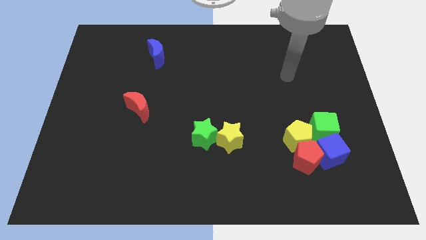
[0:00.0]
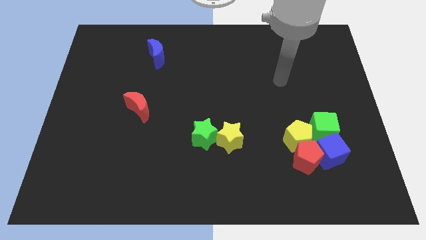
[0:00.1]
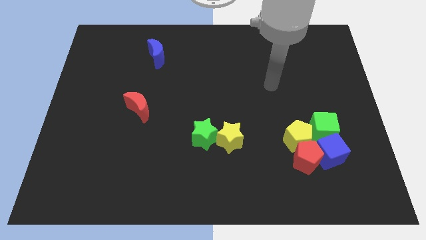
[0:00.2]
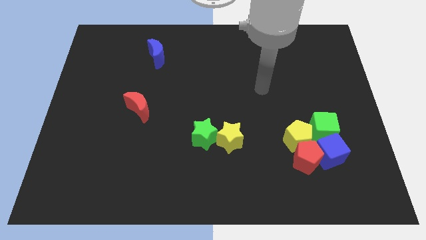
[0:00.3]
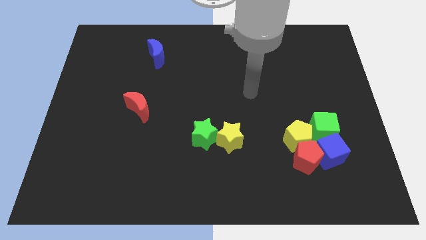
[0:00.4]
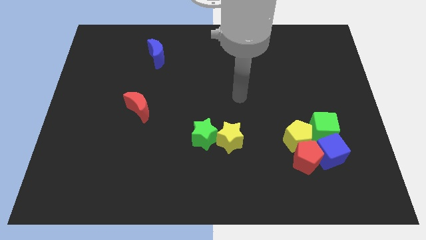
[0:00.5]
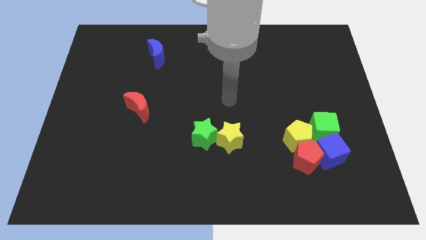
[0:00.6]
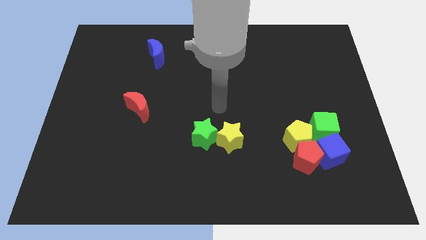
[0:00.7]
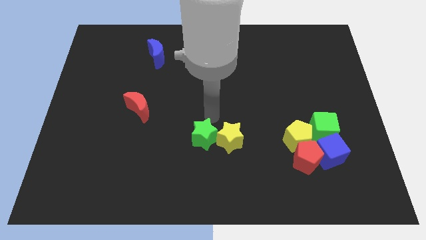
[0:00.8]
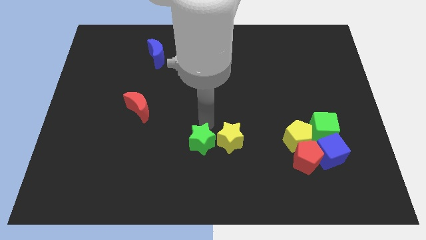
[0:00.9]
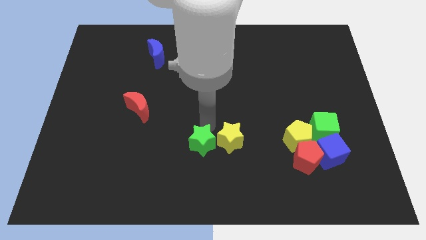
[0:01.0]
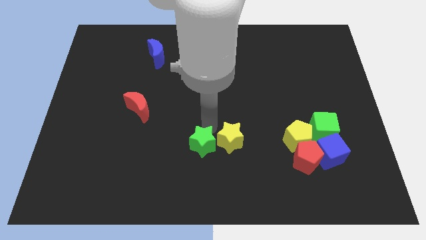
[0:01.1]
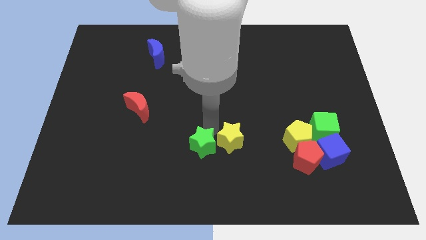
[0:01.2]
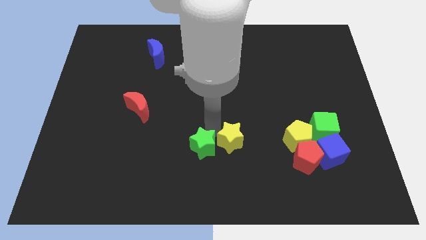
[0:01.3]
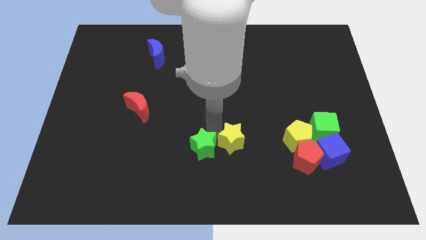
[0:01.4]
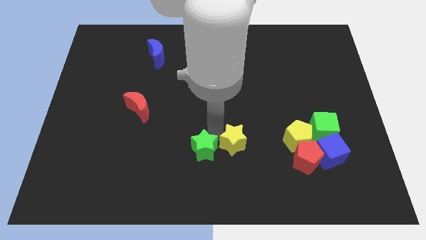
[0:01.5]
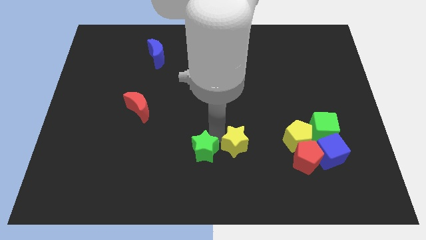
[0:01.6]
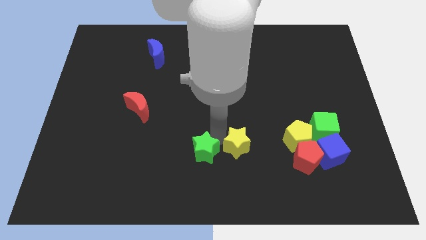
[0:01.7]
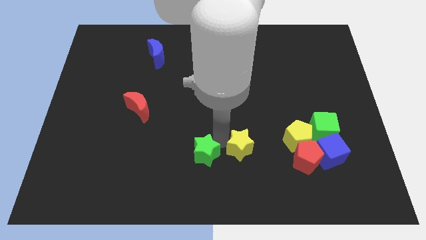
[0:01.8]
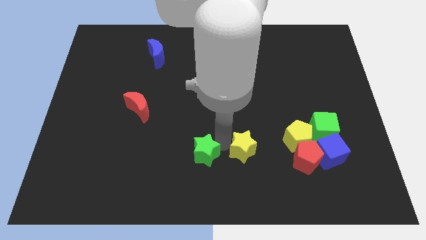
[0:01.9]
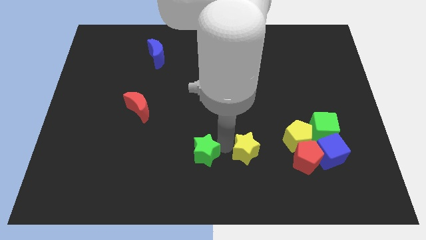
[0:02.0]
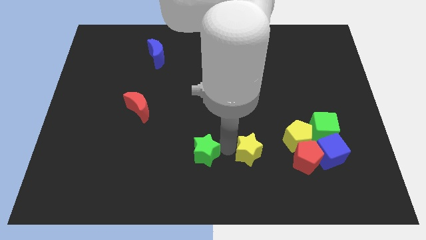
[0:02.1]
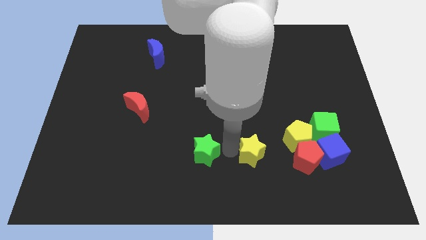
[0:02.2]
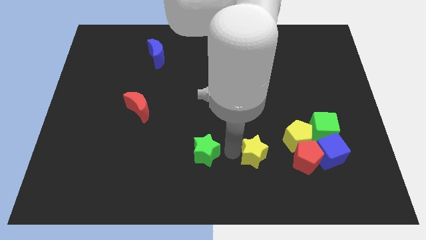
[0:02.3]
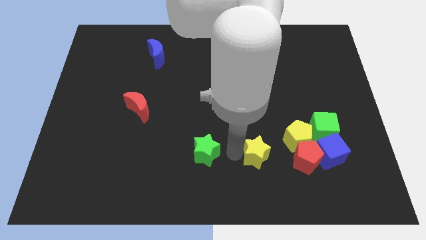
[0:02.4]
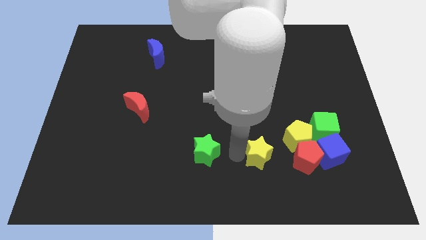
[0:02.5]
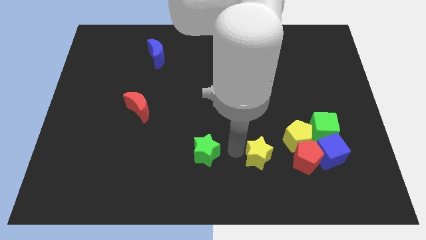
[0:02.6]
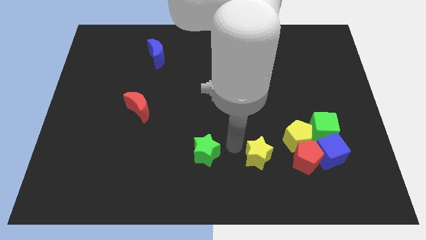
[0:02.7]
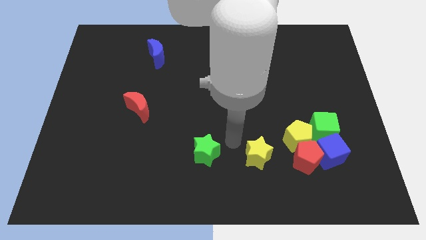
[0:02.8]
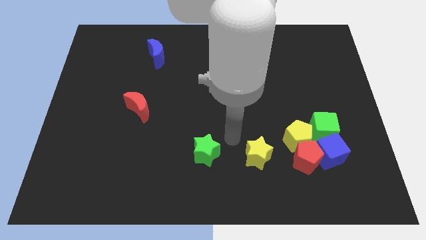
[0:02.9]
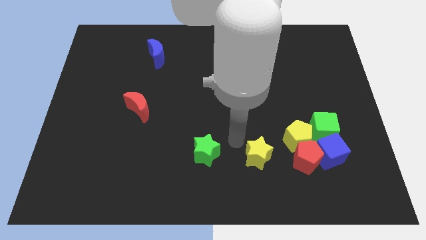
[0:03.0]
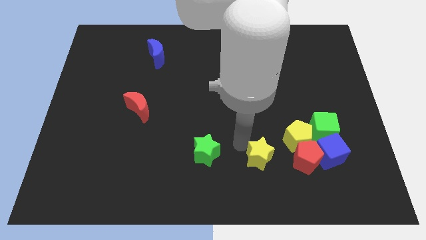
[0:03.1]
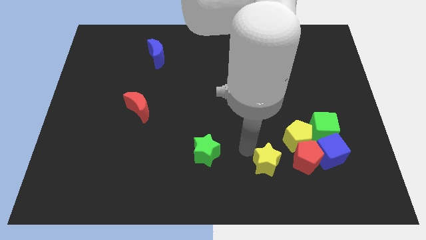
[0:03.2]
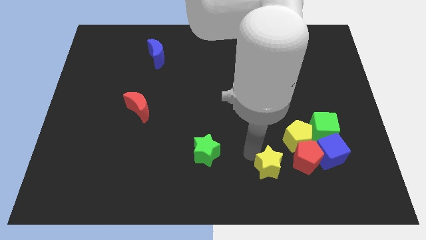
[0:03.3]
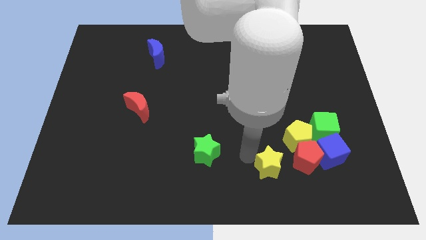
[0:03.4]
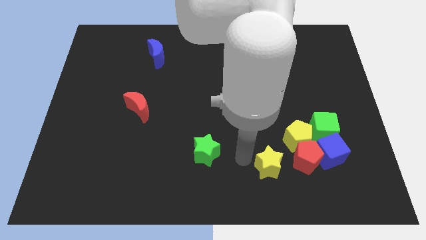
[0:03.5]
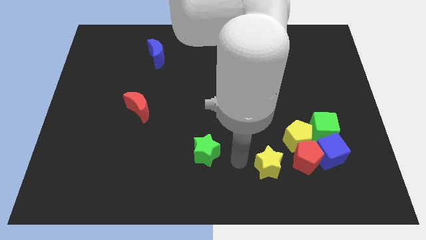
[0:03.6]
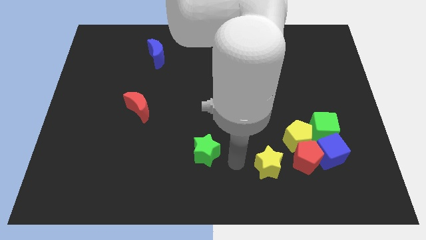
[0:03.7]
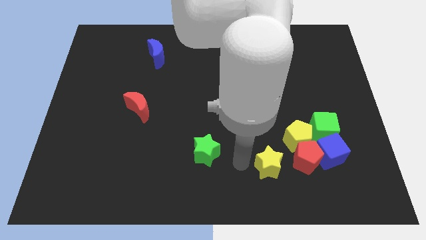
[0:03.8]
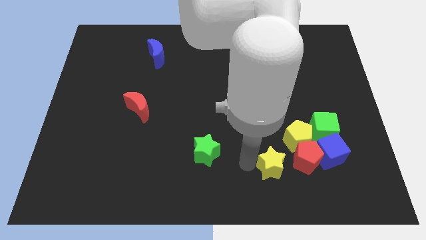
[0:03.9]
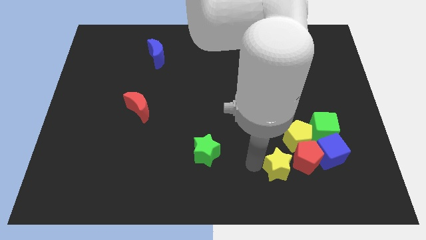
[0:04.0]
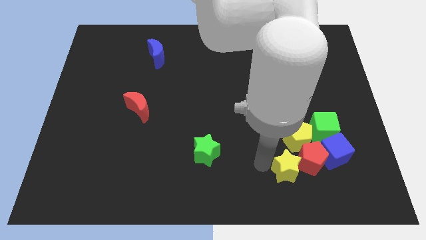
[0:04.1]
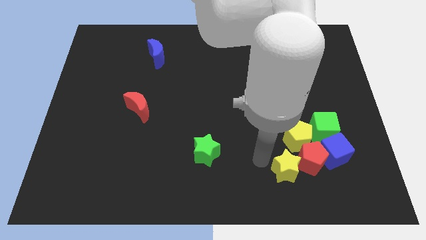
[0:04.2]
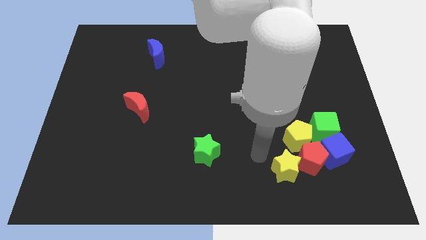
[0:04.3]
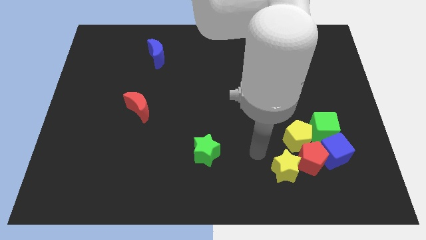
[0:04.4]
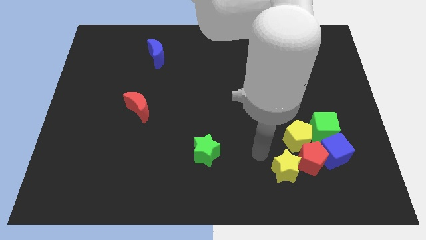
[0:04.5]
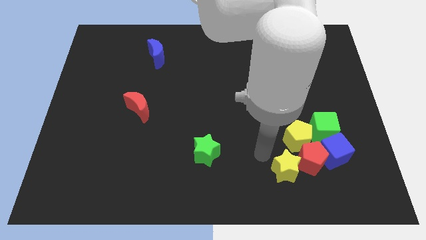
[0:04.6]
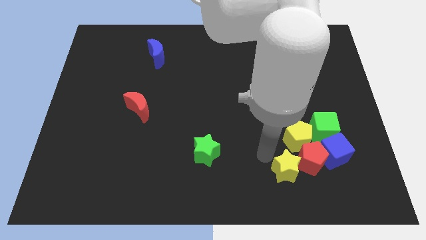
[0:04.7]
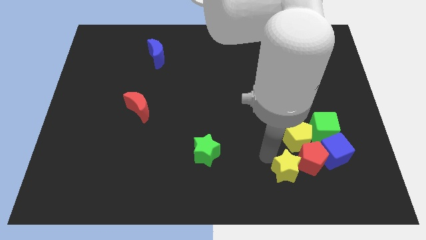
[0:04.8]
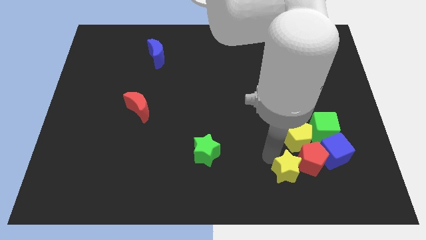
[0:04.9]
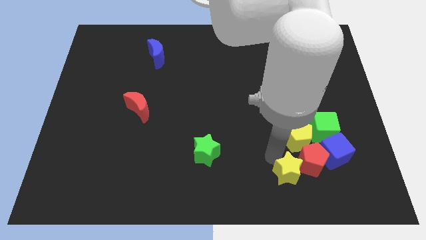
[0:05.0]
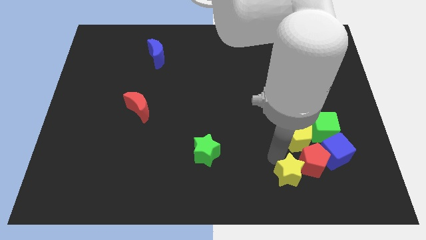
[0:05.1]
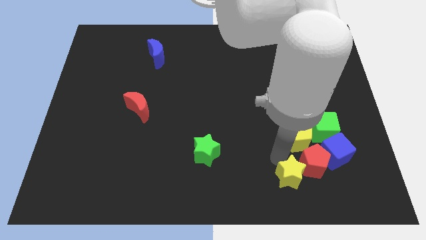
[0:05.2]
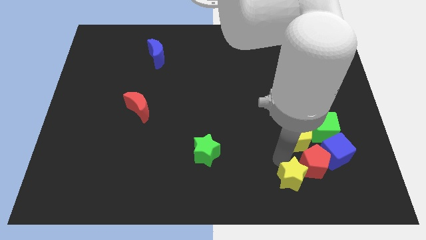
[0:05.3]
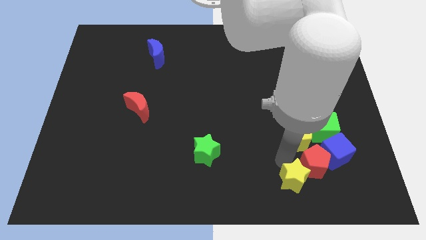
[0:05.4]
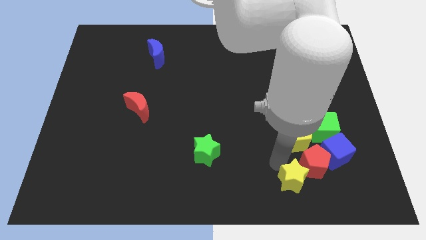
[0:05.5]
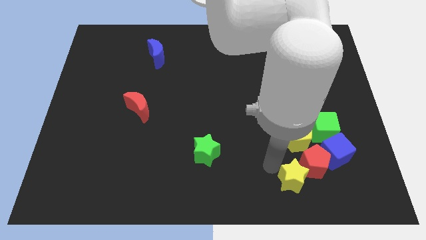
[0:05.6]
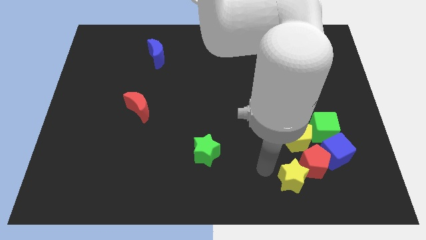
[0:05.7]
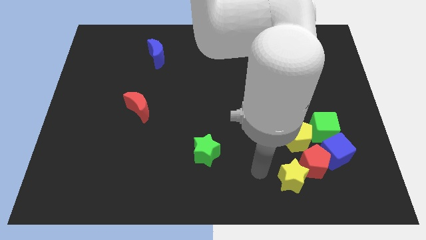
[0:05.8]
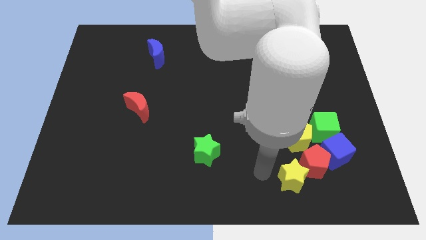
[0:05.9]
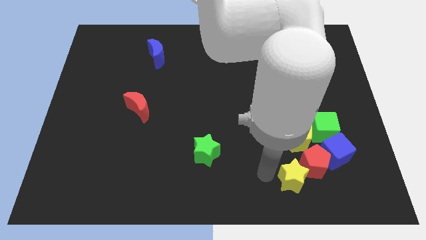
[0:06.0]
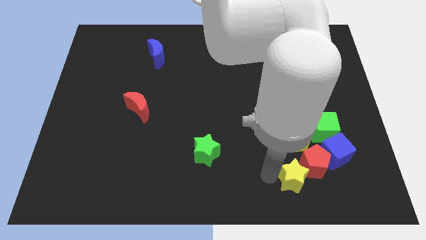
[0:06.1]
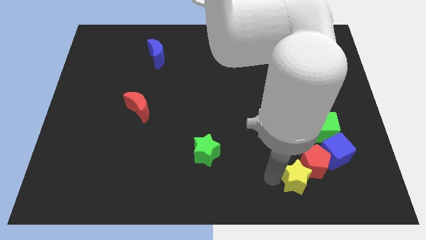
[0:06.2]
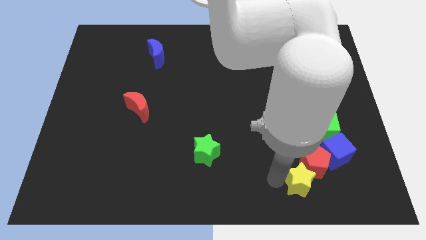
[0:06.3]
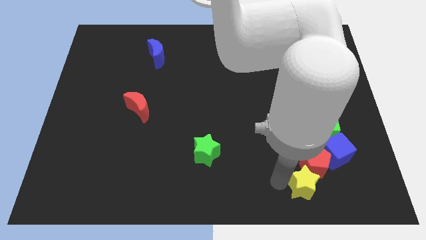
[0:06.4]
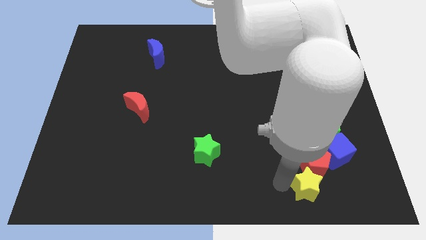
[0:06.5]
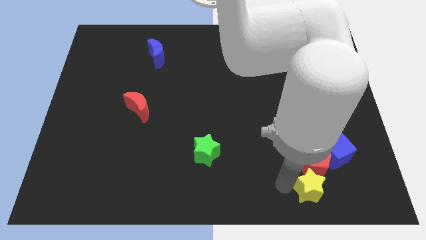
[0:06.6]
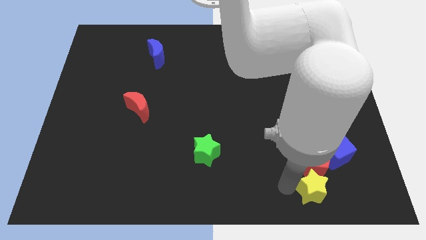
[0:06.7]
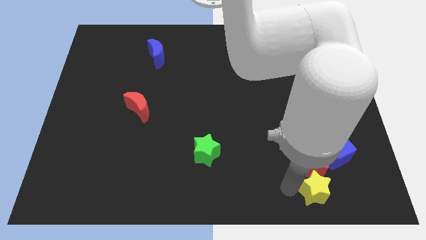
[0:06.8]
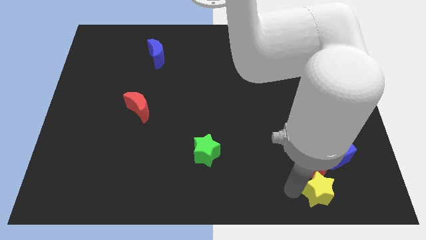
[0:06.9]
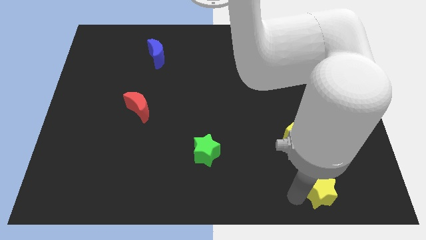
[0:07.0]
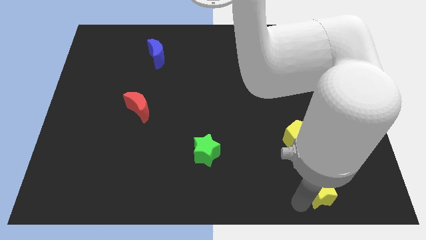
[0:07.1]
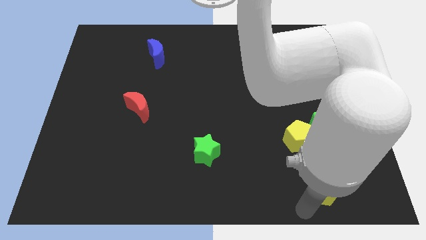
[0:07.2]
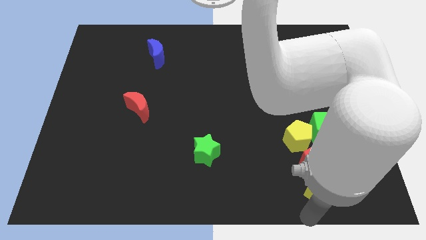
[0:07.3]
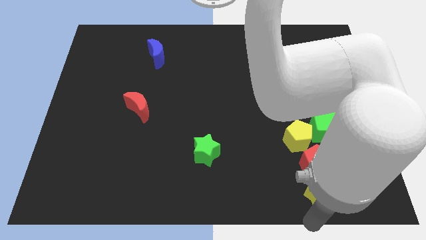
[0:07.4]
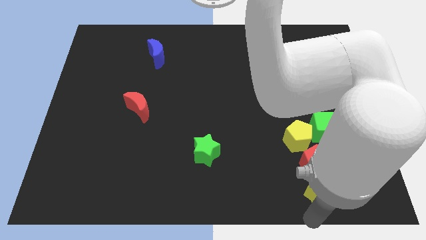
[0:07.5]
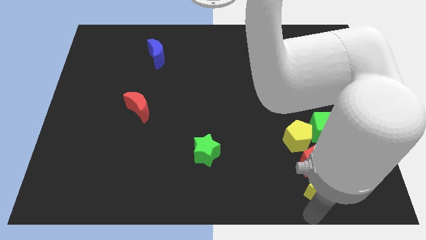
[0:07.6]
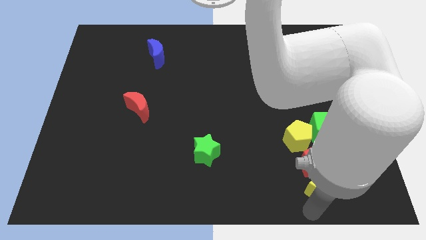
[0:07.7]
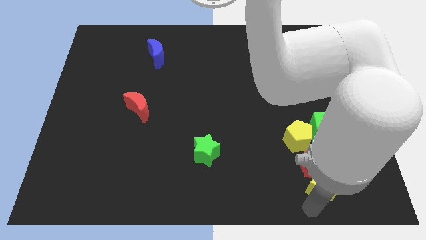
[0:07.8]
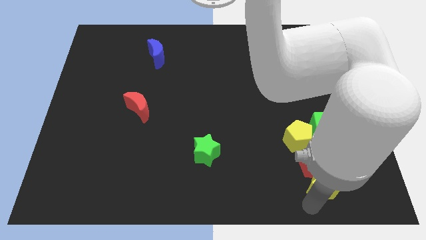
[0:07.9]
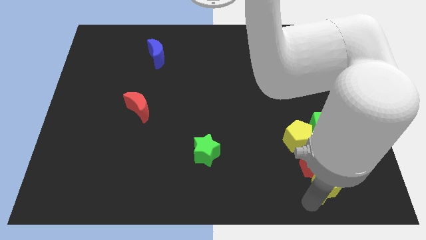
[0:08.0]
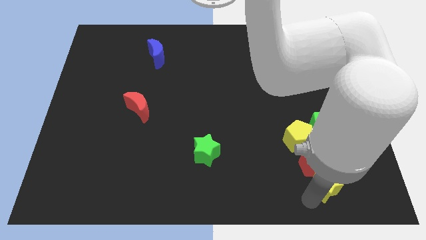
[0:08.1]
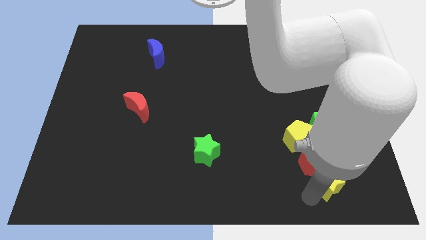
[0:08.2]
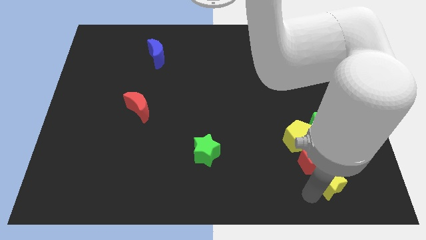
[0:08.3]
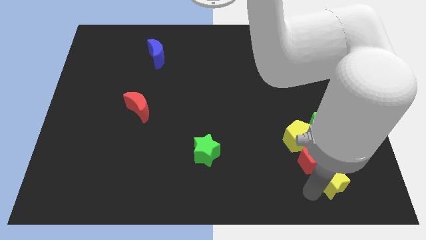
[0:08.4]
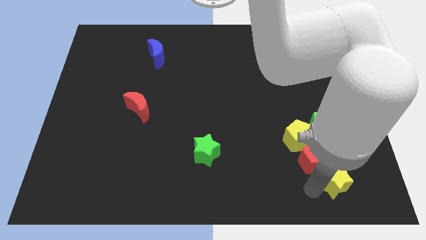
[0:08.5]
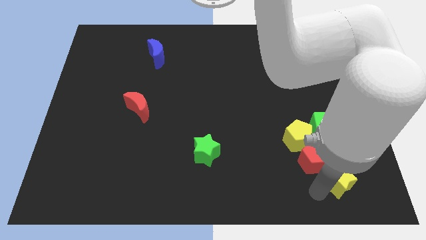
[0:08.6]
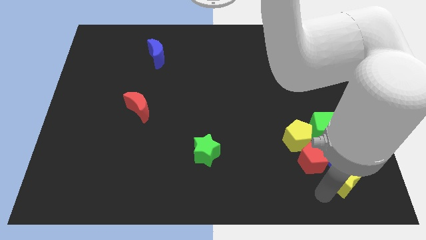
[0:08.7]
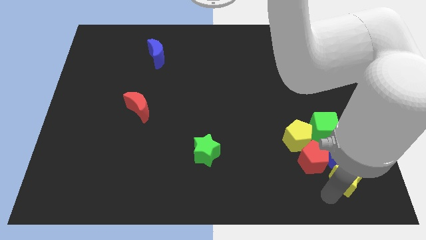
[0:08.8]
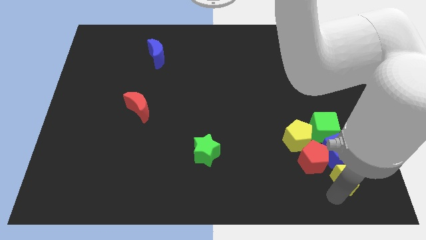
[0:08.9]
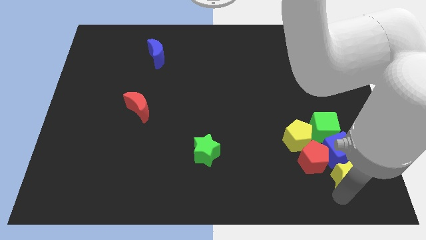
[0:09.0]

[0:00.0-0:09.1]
move the yellow star next to the blue cube
